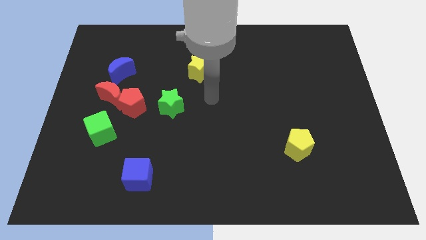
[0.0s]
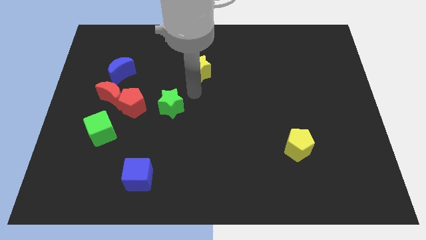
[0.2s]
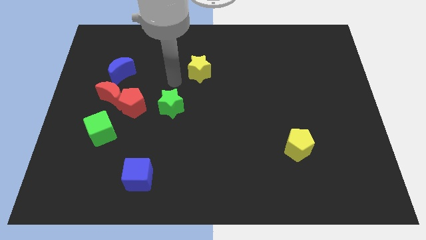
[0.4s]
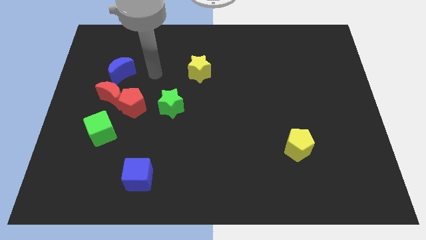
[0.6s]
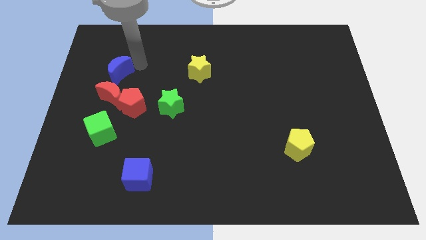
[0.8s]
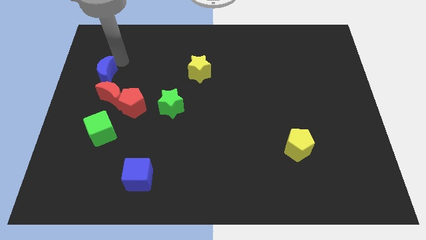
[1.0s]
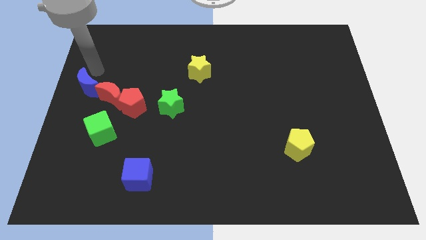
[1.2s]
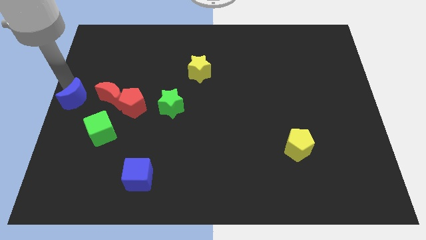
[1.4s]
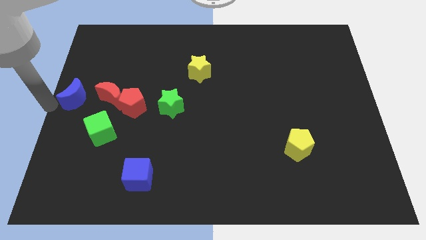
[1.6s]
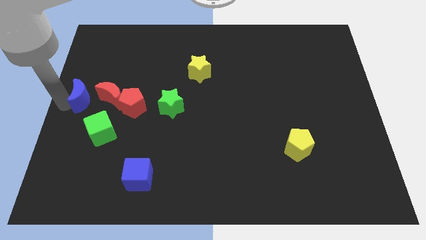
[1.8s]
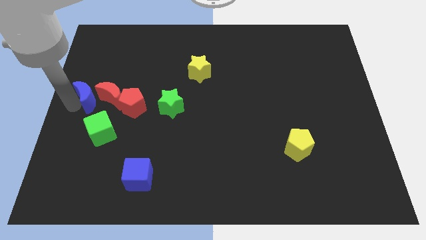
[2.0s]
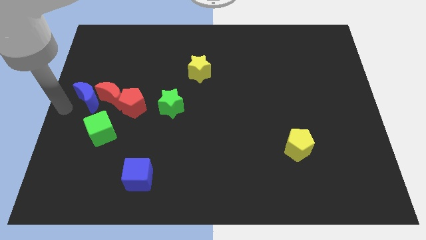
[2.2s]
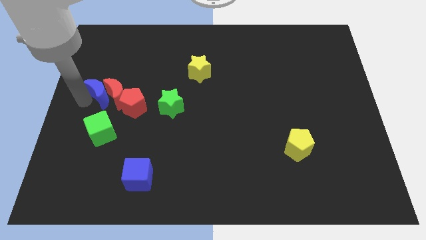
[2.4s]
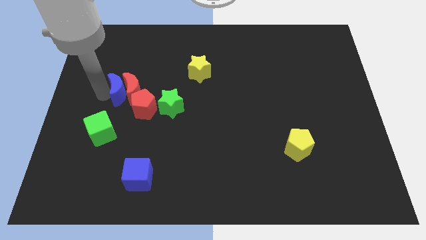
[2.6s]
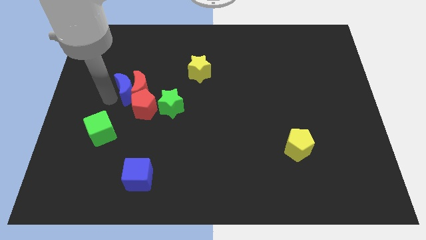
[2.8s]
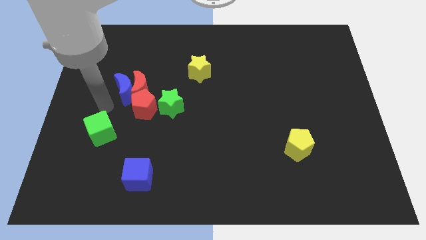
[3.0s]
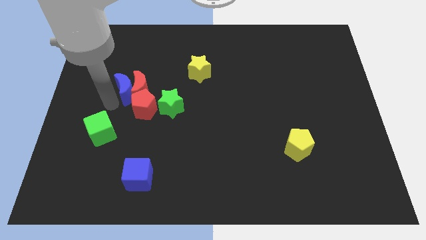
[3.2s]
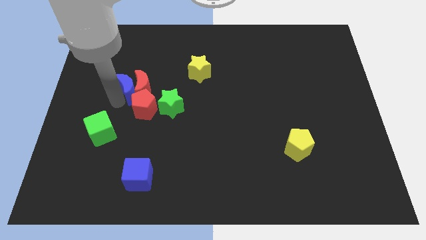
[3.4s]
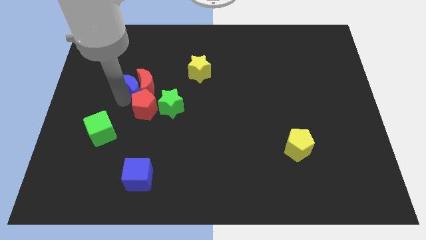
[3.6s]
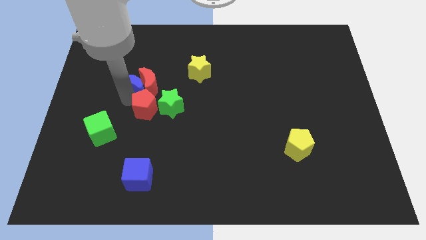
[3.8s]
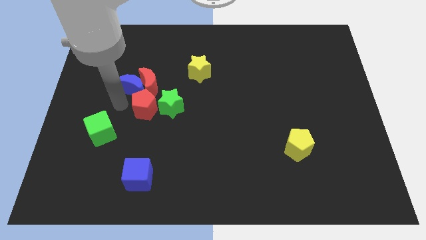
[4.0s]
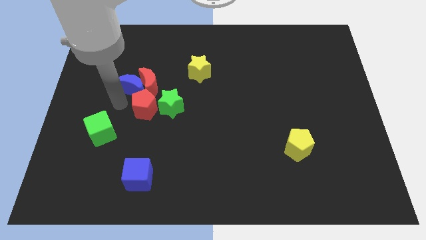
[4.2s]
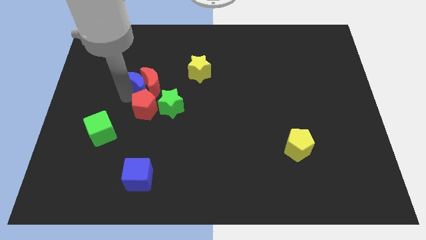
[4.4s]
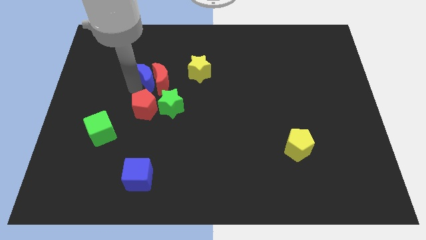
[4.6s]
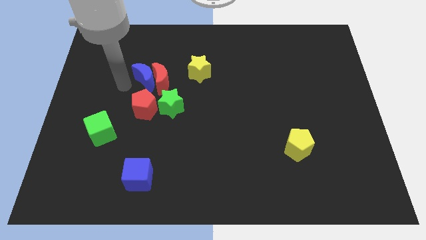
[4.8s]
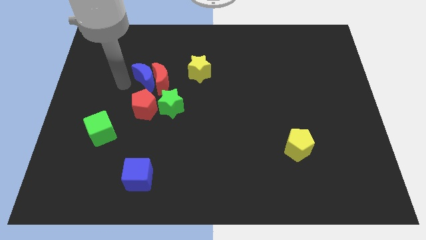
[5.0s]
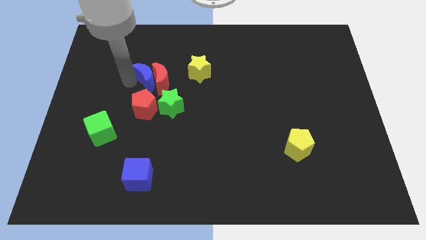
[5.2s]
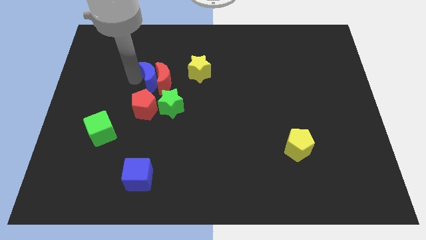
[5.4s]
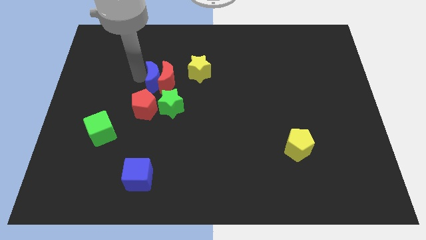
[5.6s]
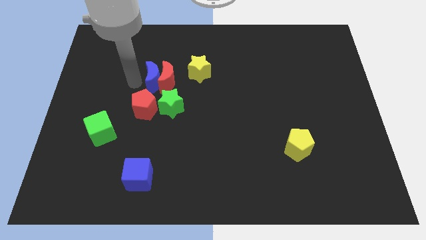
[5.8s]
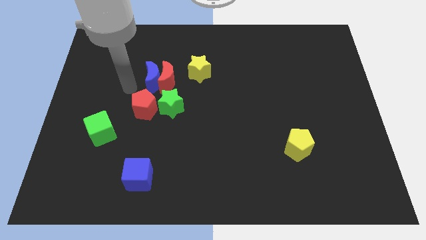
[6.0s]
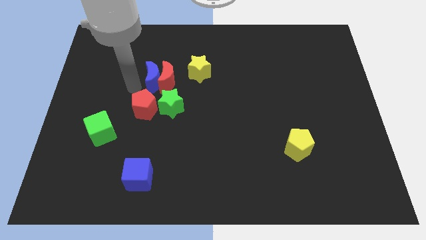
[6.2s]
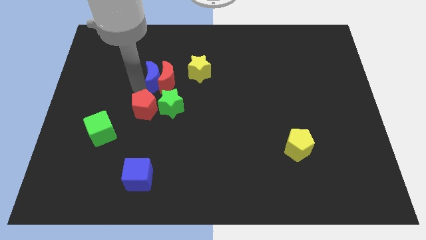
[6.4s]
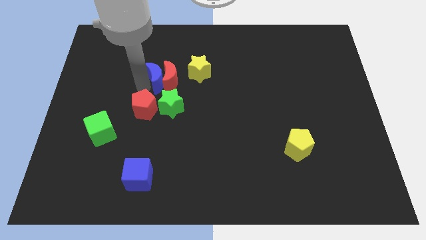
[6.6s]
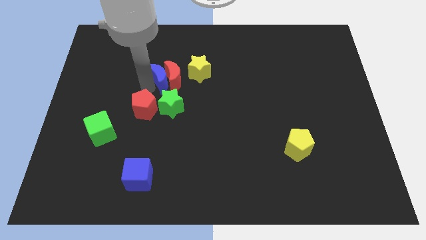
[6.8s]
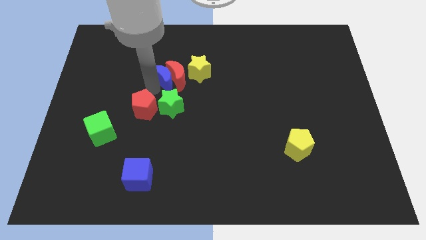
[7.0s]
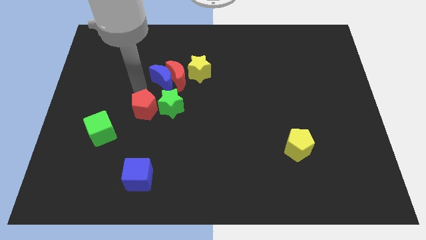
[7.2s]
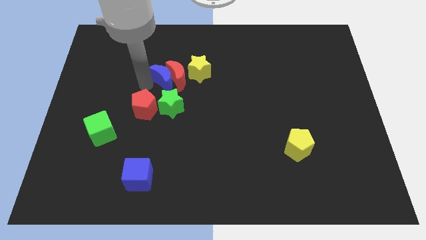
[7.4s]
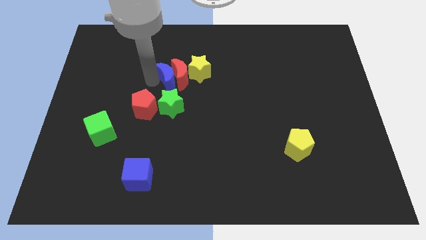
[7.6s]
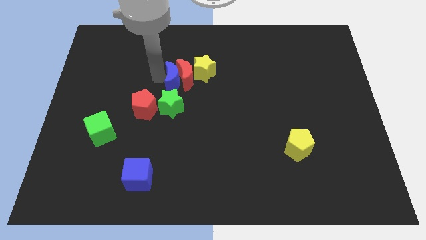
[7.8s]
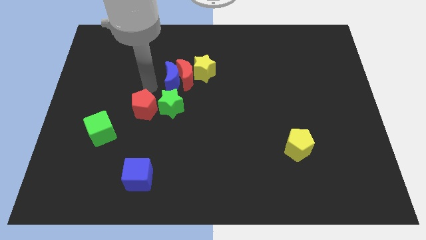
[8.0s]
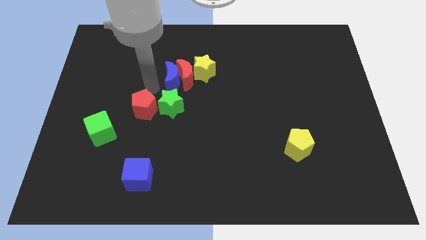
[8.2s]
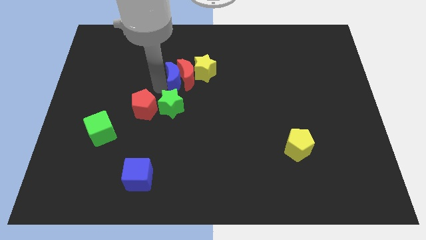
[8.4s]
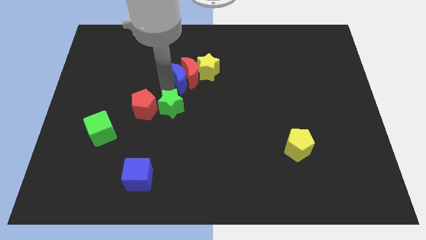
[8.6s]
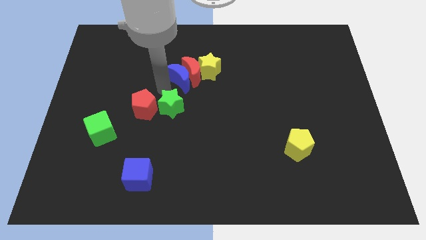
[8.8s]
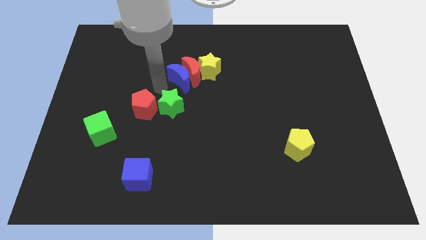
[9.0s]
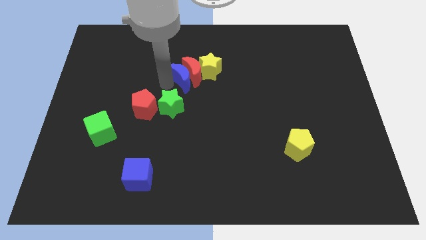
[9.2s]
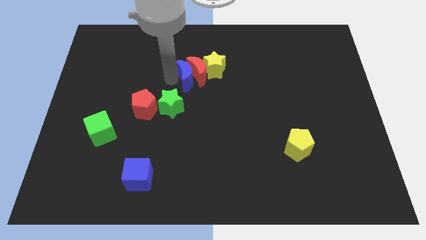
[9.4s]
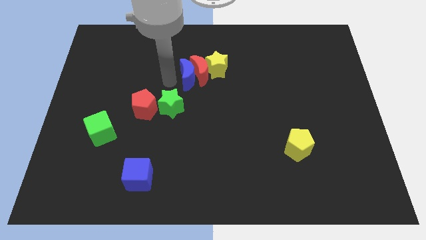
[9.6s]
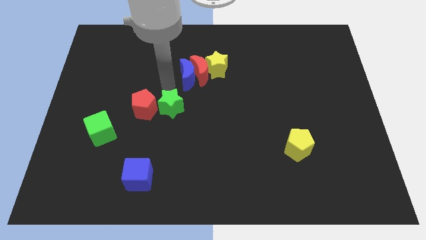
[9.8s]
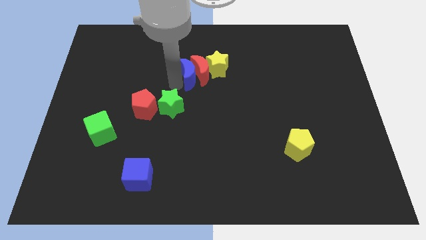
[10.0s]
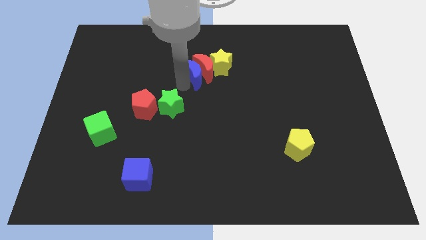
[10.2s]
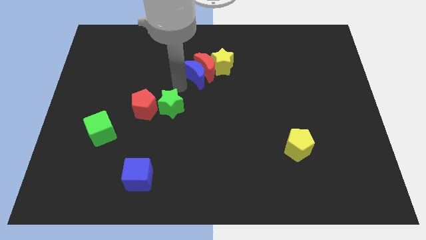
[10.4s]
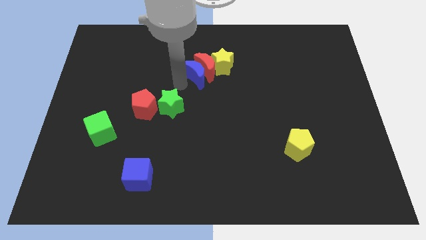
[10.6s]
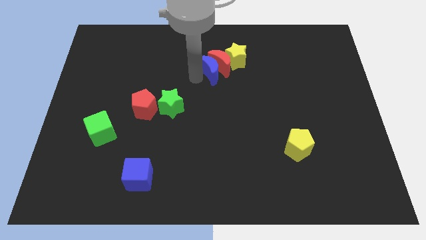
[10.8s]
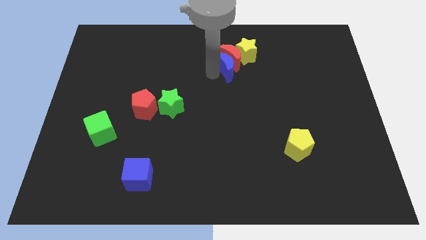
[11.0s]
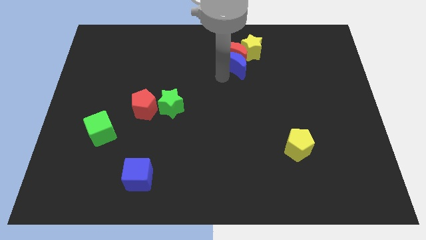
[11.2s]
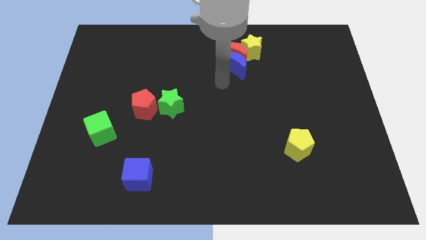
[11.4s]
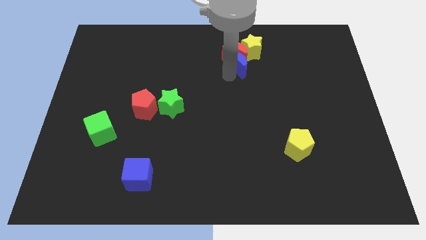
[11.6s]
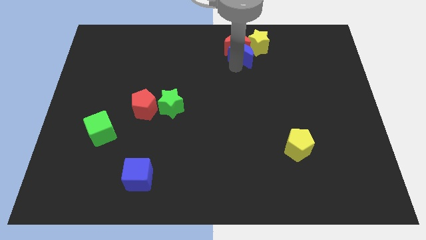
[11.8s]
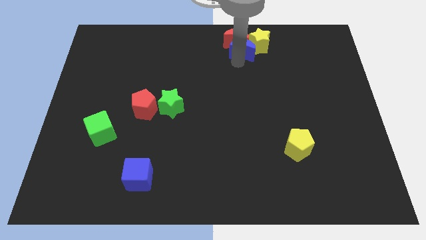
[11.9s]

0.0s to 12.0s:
put the blue moon towards the yellow star

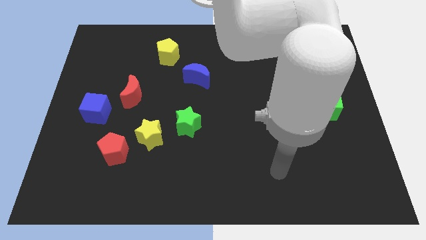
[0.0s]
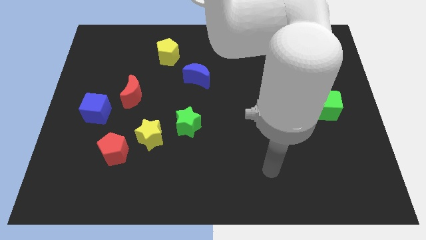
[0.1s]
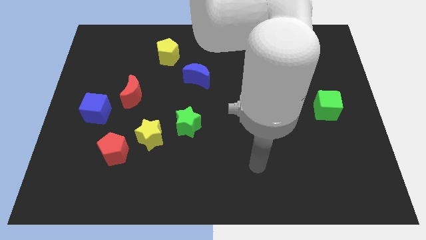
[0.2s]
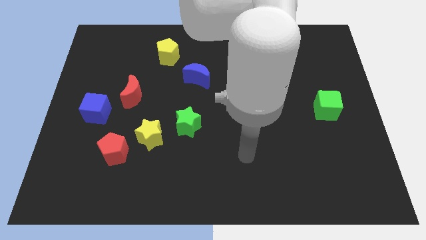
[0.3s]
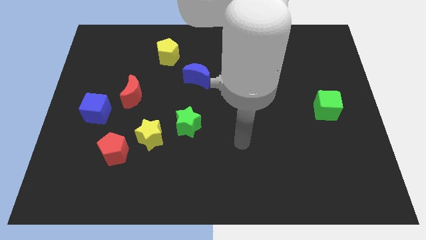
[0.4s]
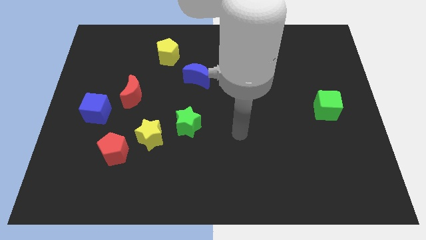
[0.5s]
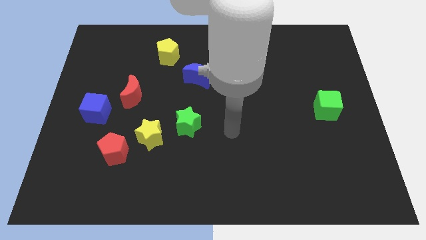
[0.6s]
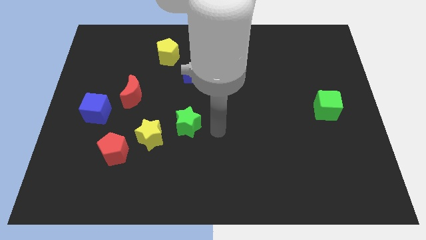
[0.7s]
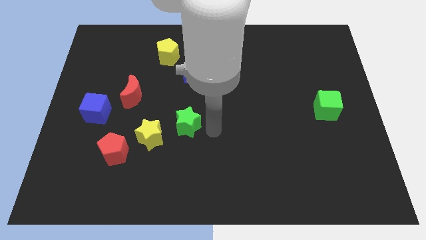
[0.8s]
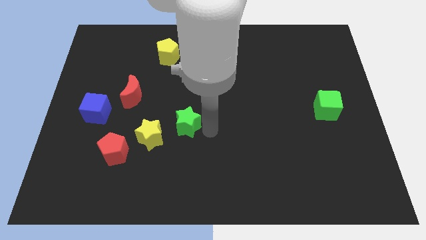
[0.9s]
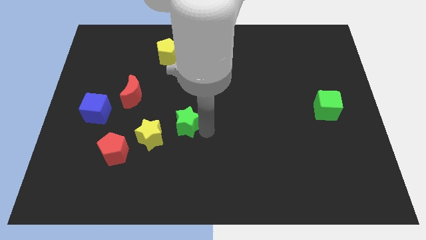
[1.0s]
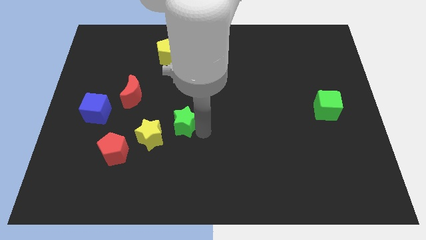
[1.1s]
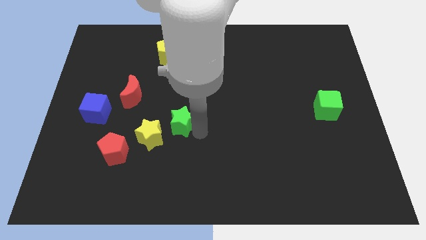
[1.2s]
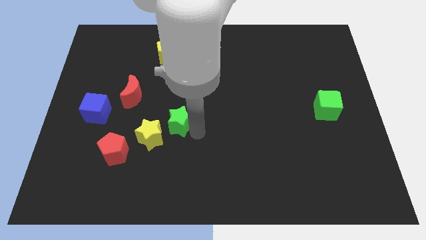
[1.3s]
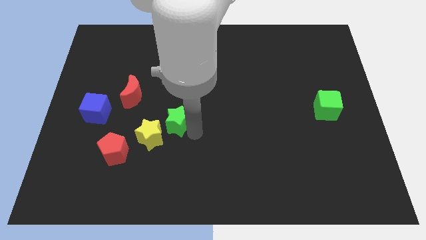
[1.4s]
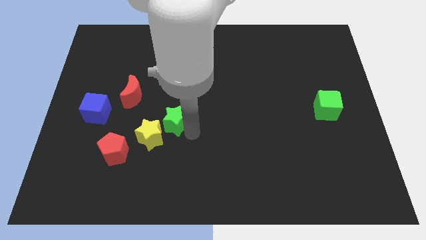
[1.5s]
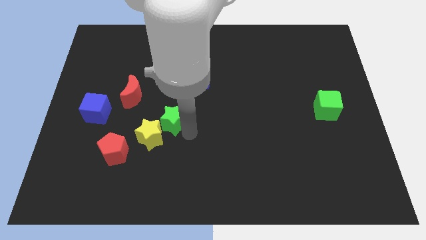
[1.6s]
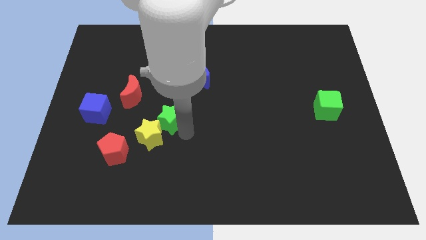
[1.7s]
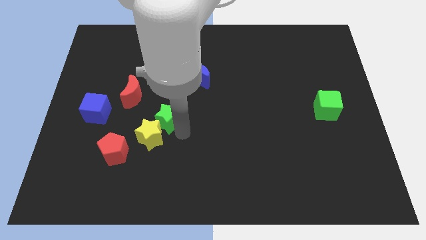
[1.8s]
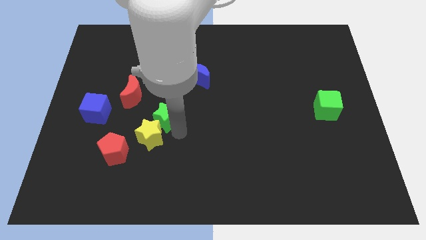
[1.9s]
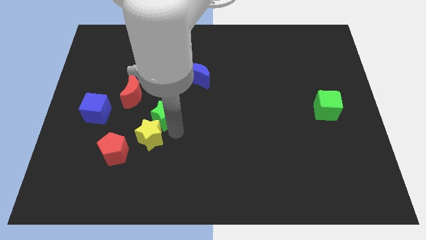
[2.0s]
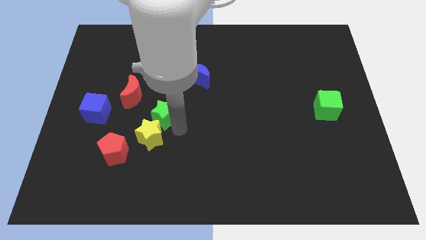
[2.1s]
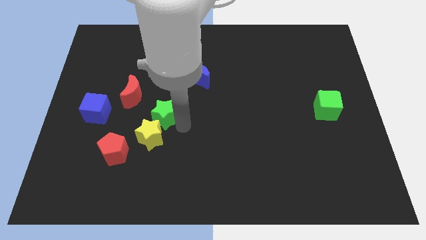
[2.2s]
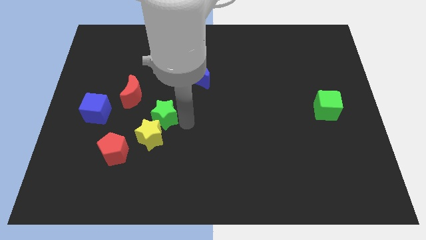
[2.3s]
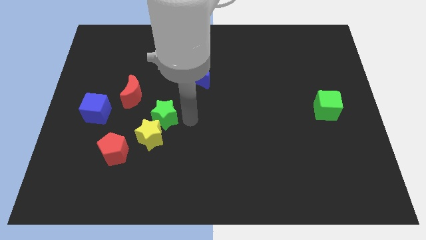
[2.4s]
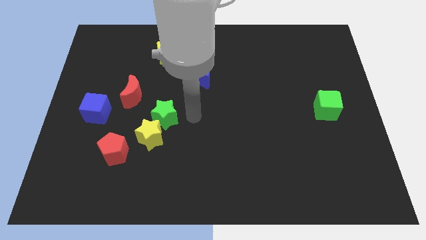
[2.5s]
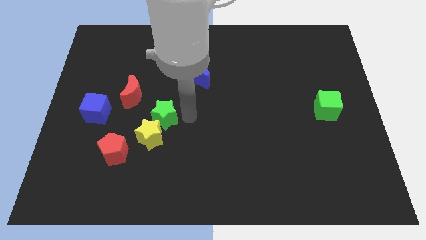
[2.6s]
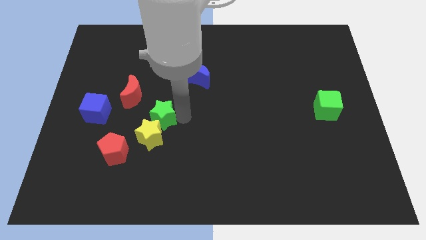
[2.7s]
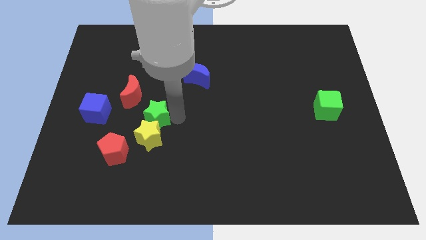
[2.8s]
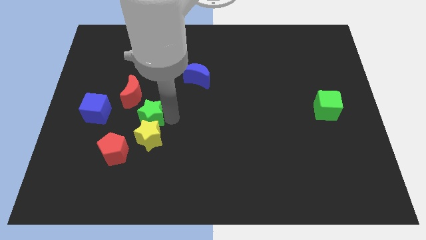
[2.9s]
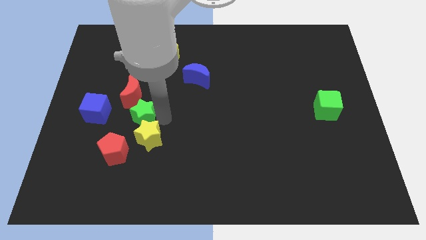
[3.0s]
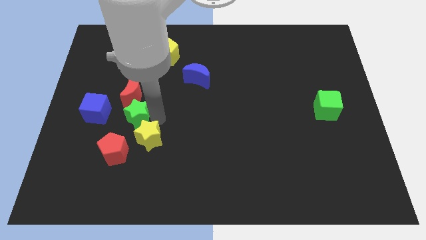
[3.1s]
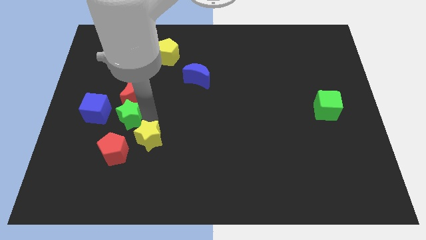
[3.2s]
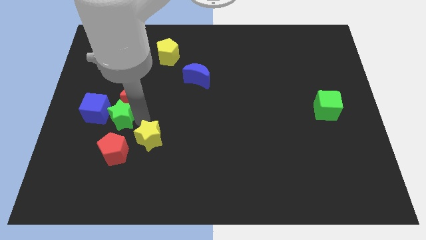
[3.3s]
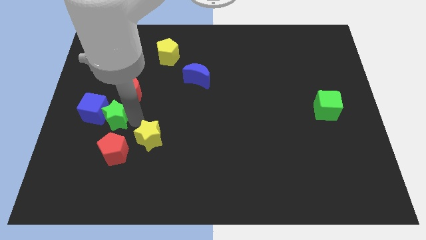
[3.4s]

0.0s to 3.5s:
put the green star towards the blue cube
